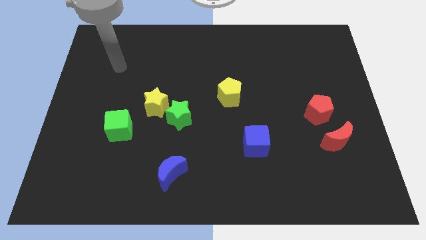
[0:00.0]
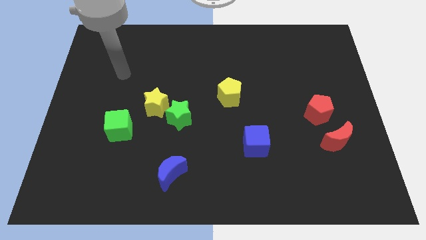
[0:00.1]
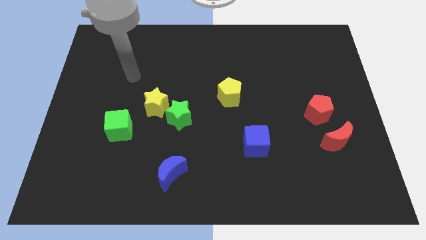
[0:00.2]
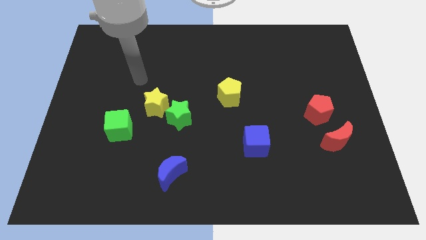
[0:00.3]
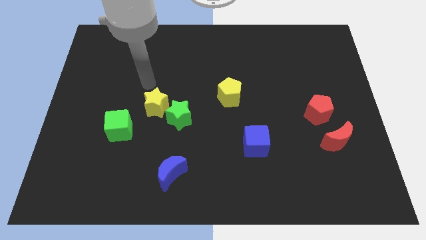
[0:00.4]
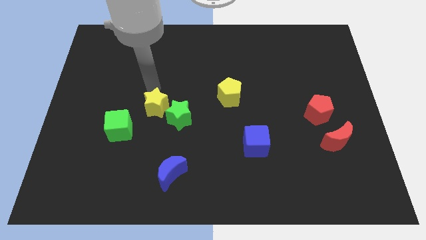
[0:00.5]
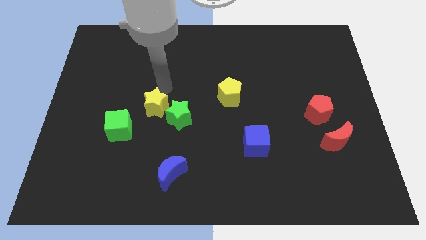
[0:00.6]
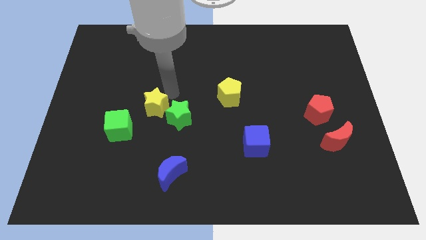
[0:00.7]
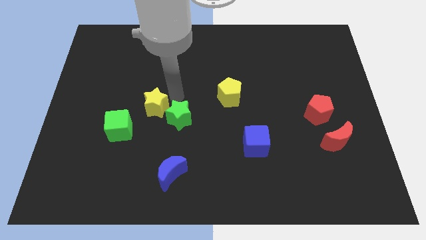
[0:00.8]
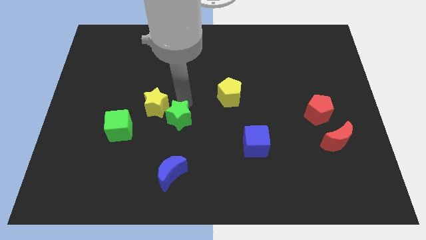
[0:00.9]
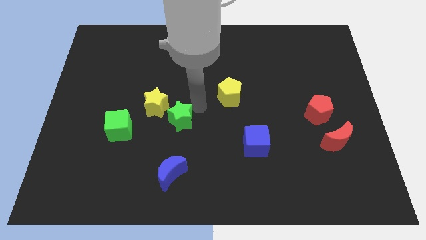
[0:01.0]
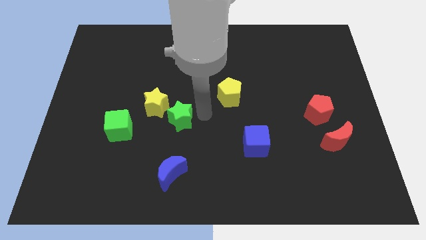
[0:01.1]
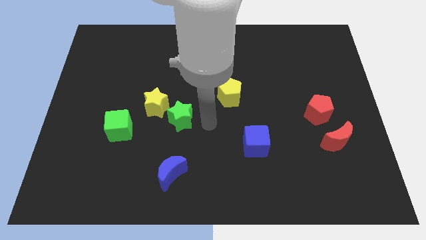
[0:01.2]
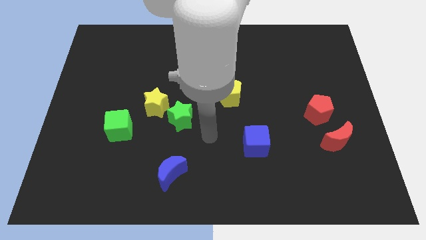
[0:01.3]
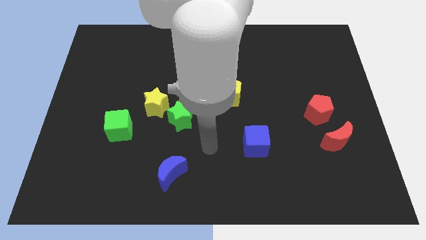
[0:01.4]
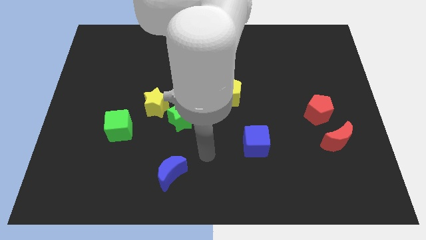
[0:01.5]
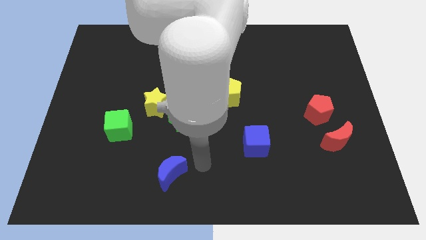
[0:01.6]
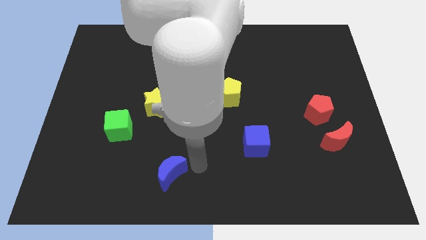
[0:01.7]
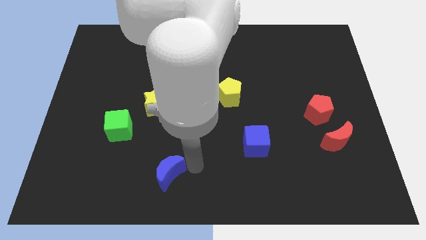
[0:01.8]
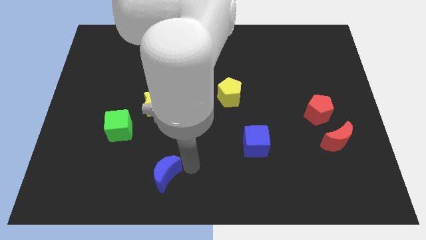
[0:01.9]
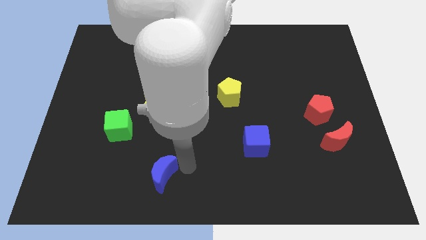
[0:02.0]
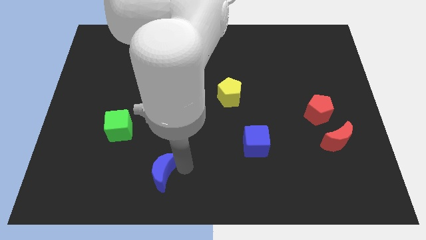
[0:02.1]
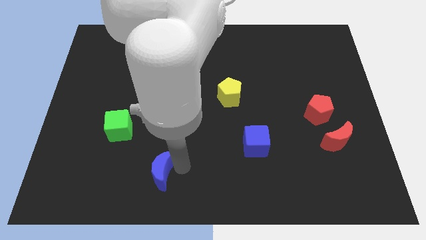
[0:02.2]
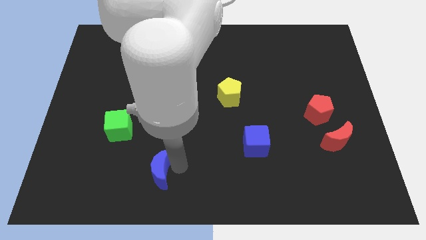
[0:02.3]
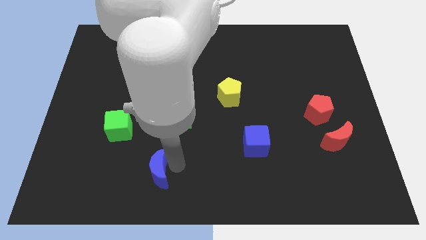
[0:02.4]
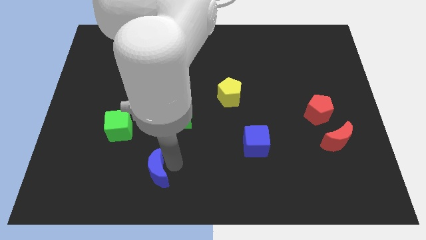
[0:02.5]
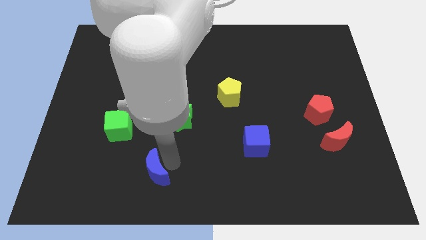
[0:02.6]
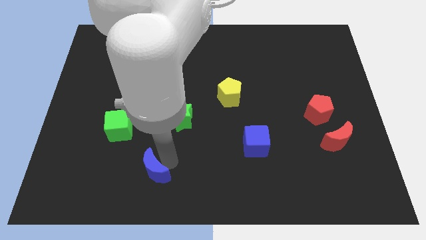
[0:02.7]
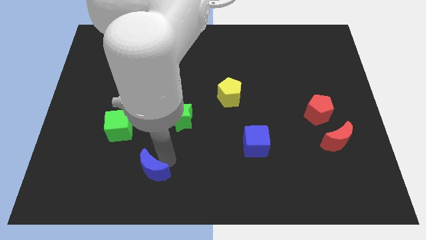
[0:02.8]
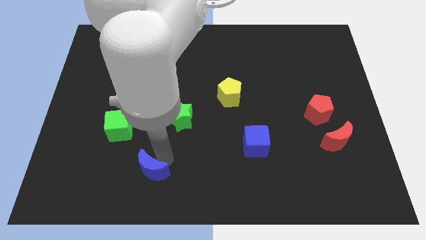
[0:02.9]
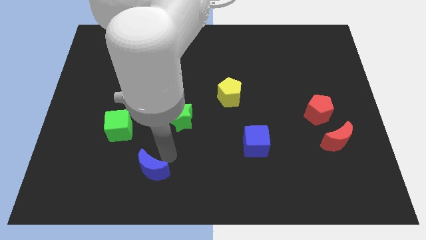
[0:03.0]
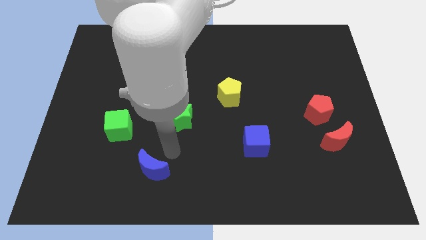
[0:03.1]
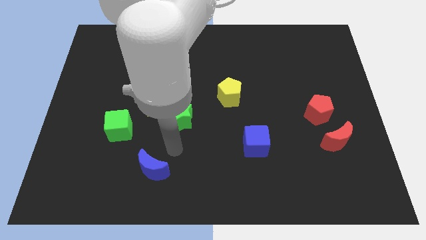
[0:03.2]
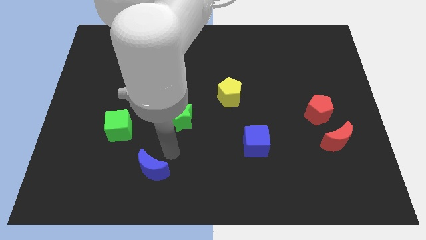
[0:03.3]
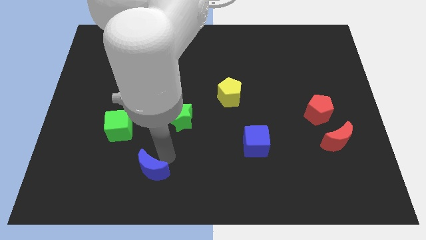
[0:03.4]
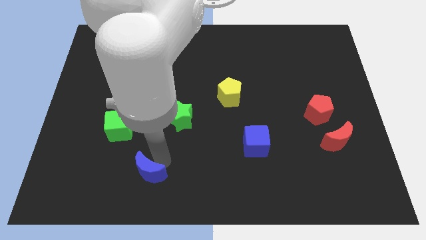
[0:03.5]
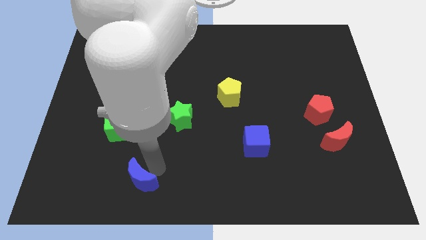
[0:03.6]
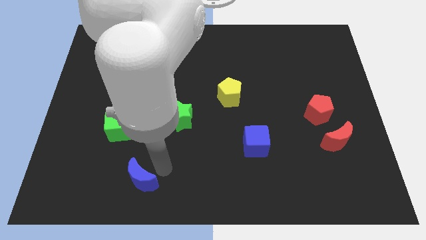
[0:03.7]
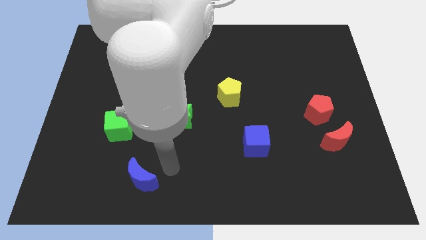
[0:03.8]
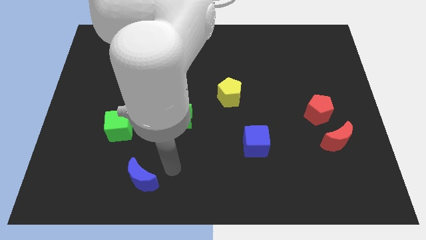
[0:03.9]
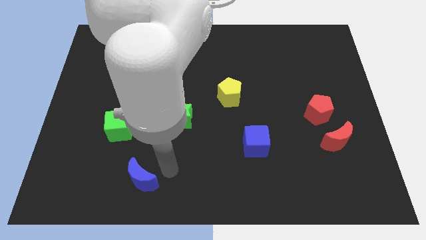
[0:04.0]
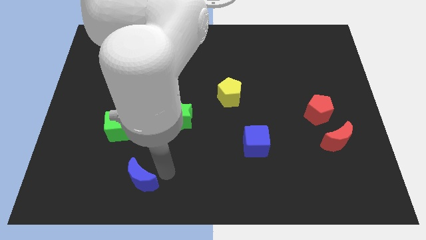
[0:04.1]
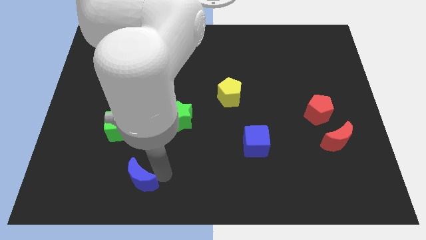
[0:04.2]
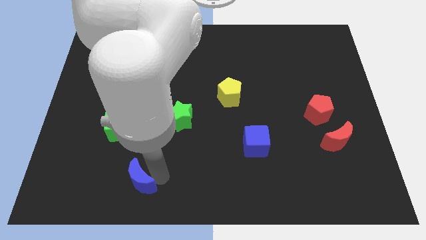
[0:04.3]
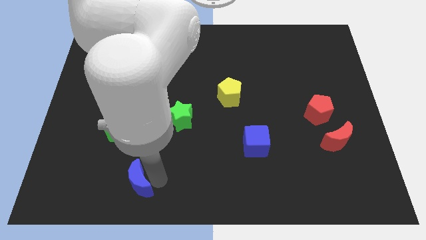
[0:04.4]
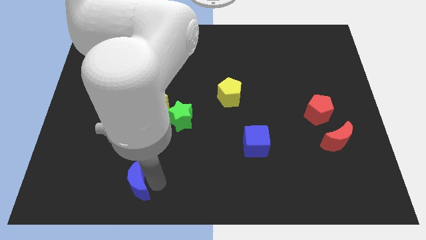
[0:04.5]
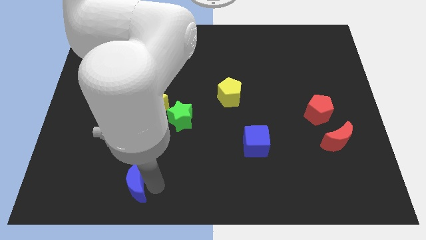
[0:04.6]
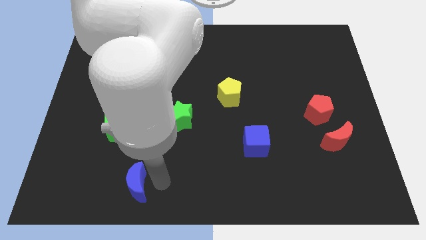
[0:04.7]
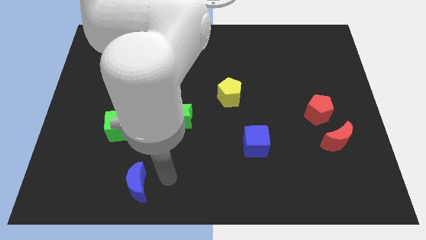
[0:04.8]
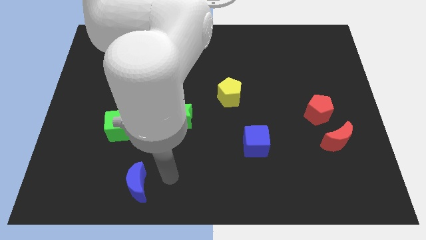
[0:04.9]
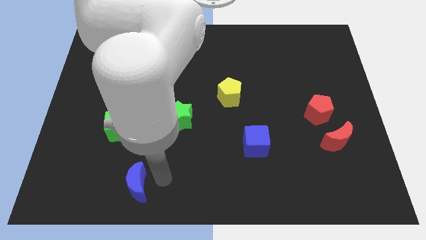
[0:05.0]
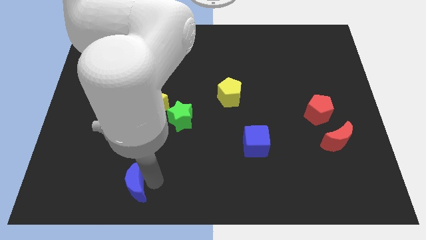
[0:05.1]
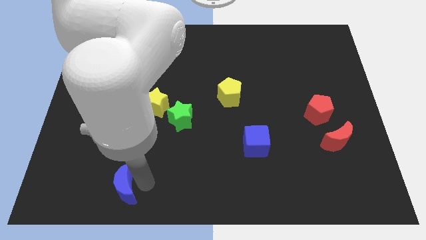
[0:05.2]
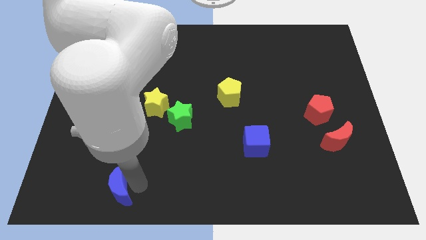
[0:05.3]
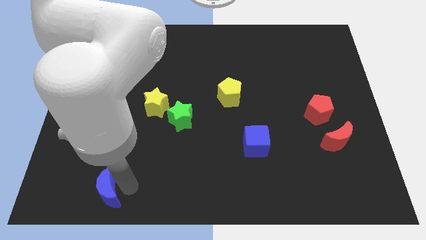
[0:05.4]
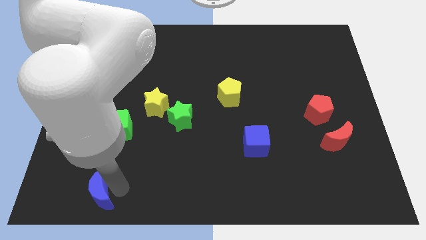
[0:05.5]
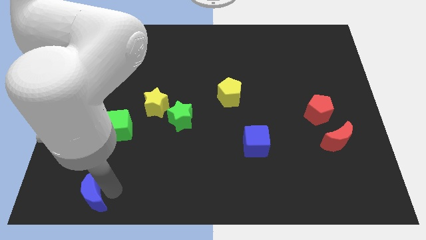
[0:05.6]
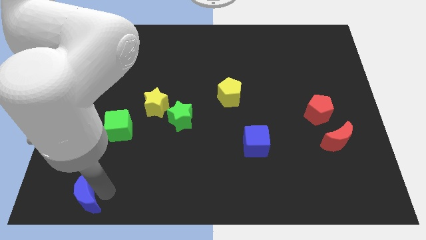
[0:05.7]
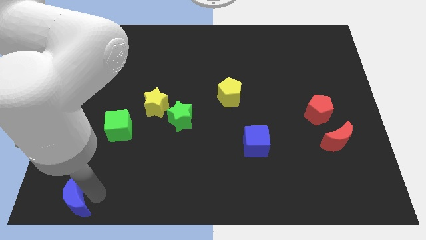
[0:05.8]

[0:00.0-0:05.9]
push the blue moon to the bottom left corner
